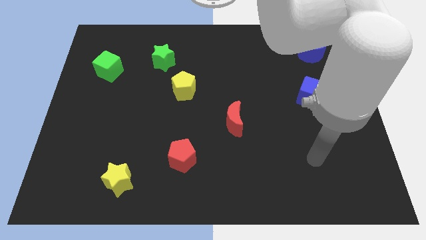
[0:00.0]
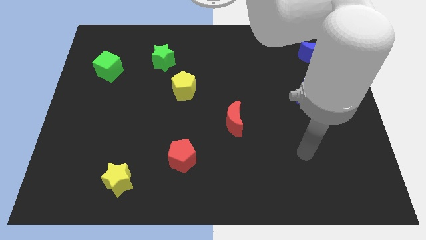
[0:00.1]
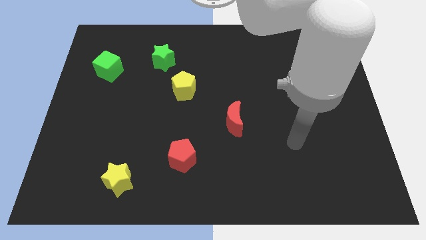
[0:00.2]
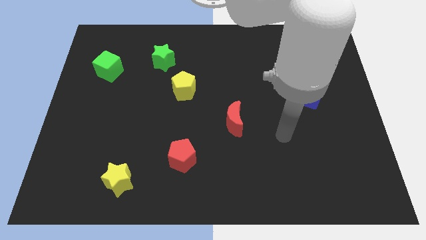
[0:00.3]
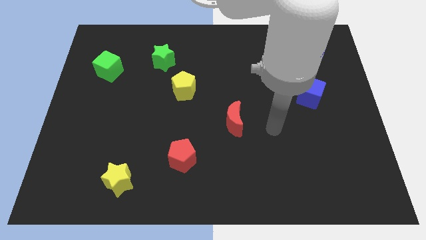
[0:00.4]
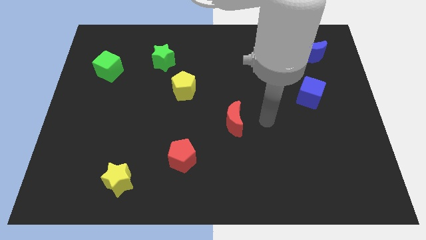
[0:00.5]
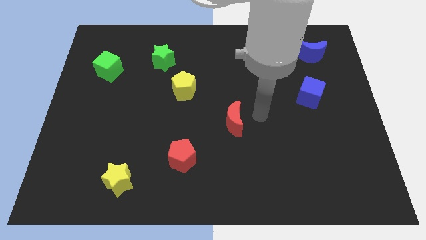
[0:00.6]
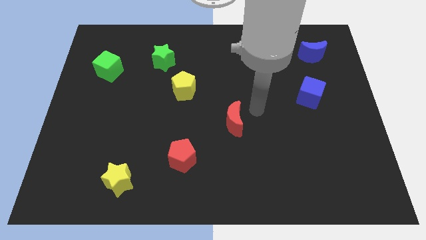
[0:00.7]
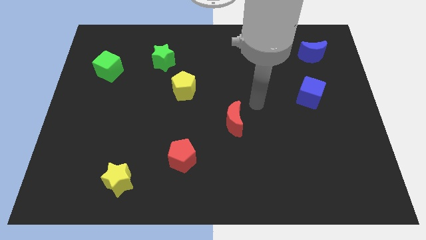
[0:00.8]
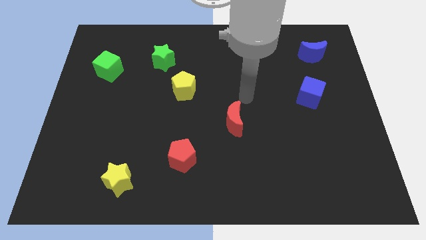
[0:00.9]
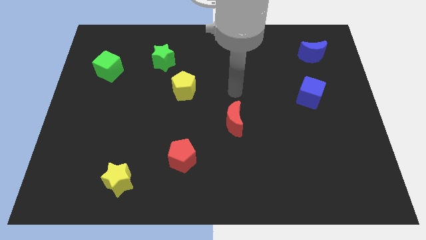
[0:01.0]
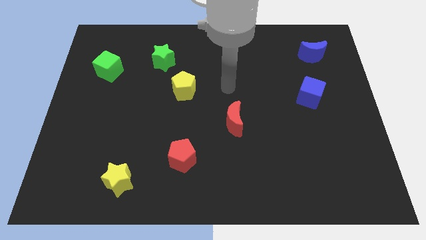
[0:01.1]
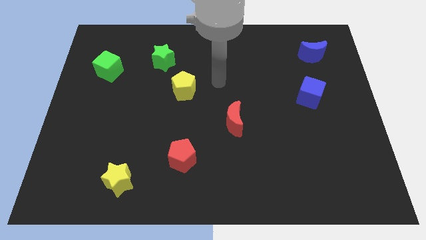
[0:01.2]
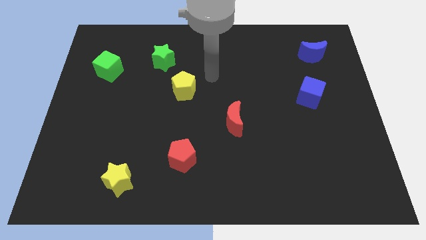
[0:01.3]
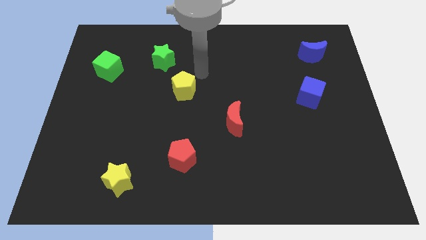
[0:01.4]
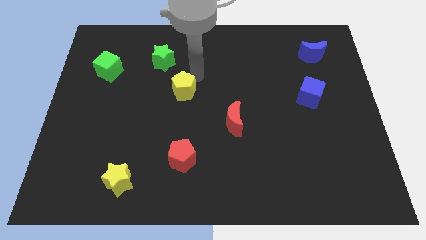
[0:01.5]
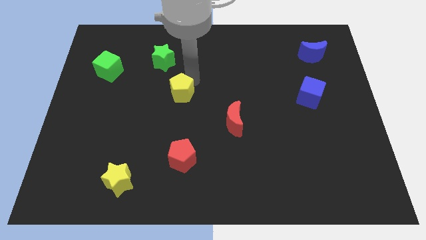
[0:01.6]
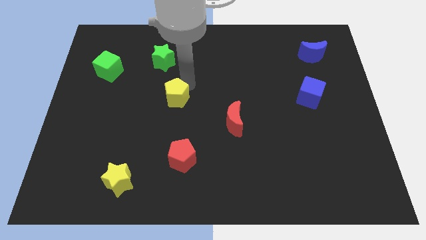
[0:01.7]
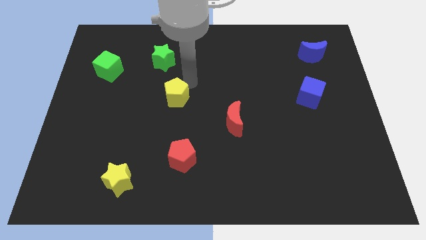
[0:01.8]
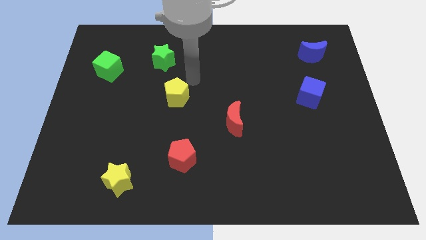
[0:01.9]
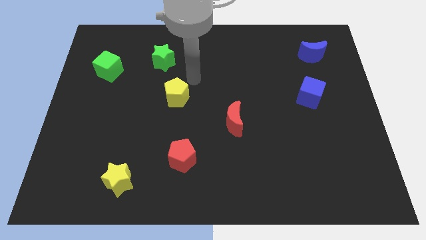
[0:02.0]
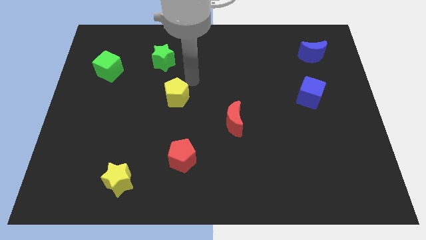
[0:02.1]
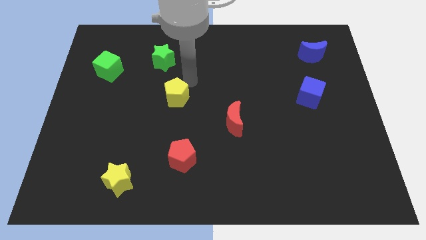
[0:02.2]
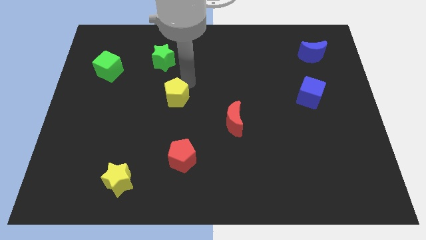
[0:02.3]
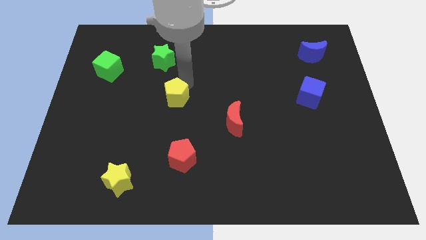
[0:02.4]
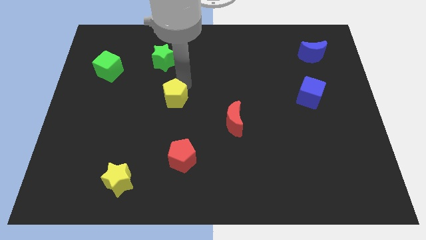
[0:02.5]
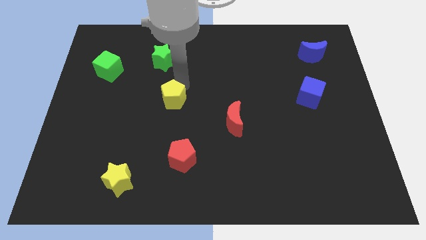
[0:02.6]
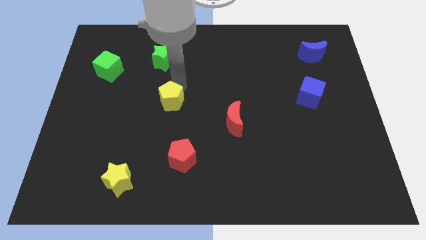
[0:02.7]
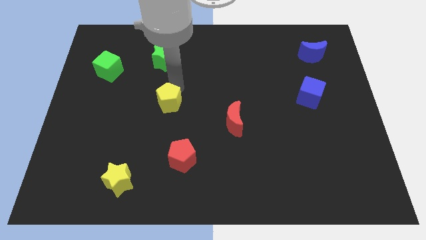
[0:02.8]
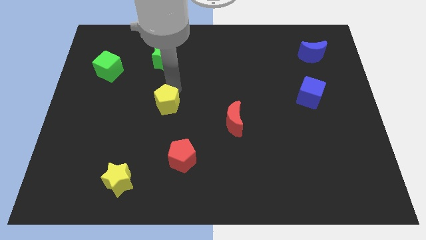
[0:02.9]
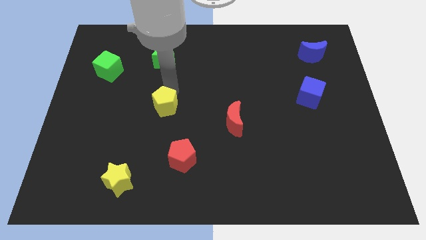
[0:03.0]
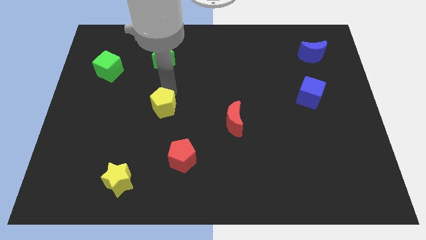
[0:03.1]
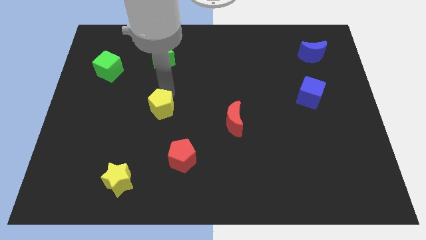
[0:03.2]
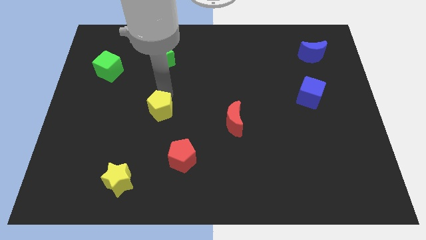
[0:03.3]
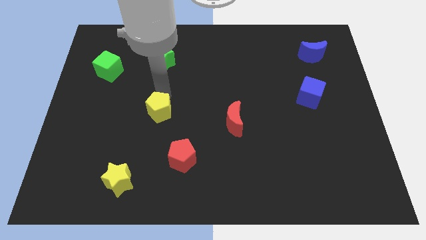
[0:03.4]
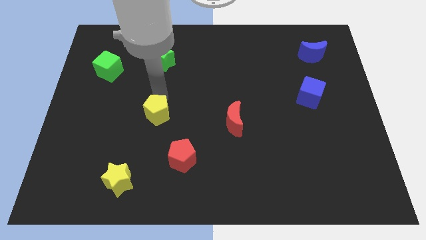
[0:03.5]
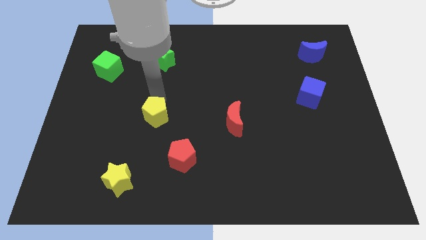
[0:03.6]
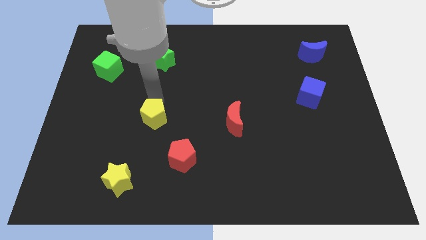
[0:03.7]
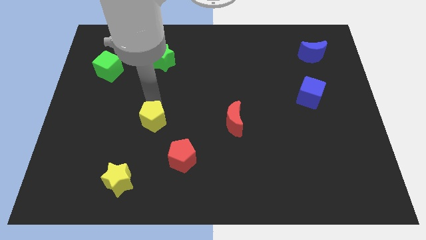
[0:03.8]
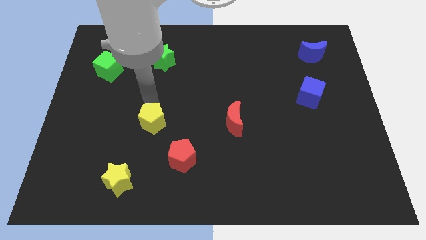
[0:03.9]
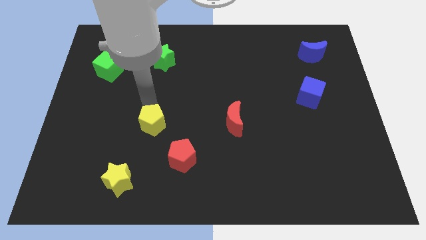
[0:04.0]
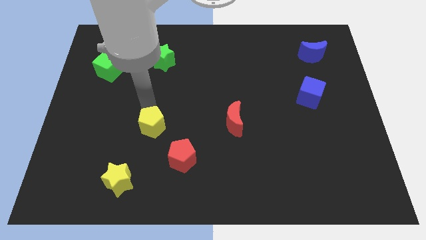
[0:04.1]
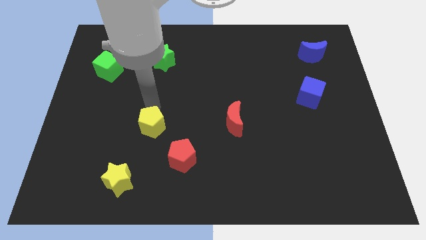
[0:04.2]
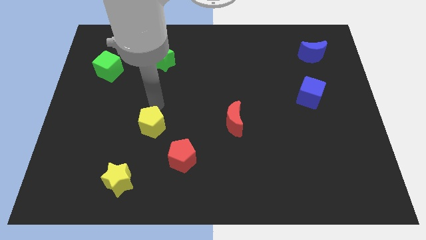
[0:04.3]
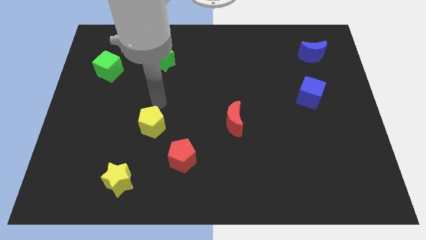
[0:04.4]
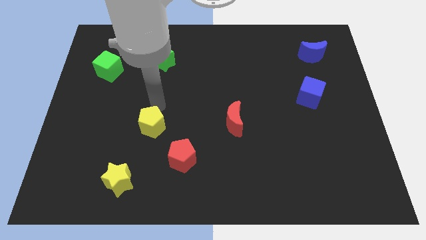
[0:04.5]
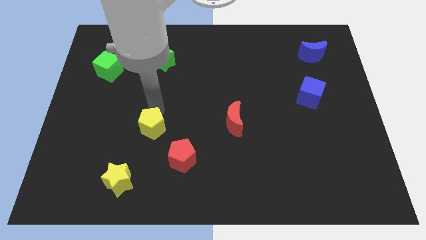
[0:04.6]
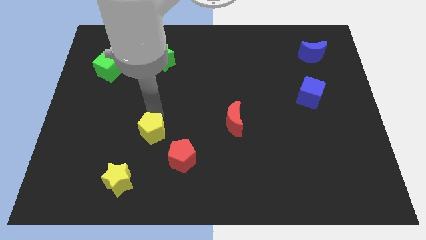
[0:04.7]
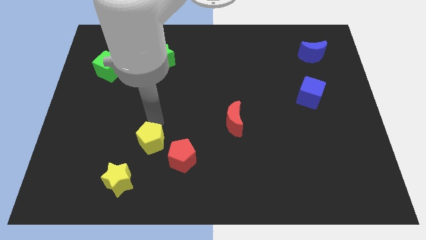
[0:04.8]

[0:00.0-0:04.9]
slide the yellow pentagon left of the red pentagon

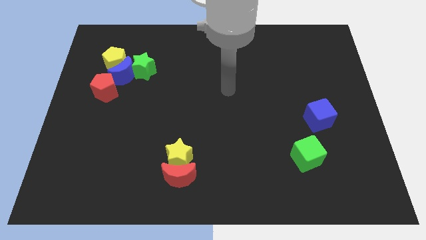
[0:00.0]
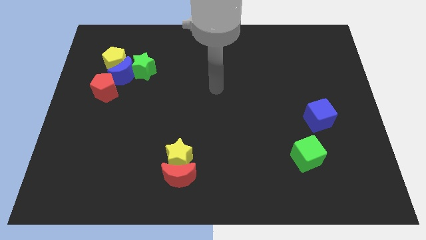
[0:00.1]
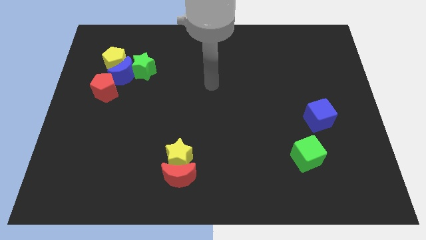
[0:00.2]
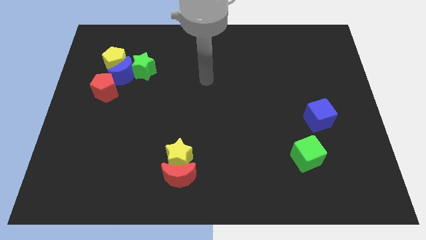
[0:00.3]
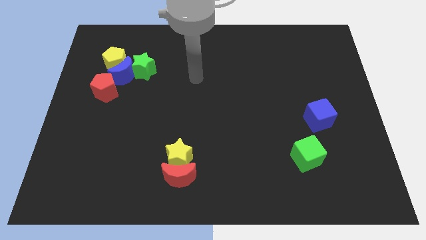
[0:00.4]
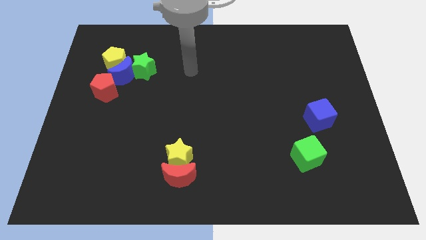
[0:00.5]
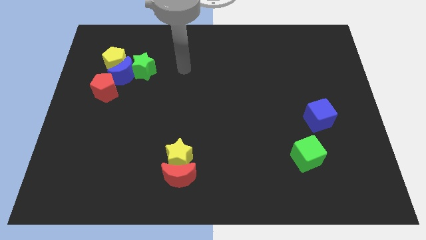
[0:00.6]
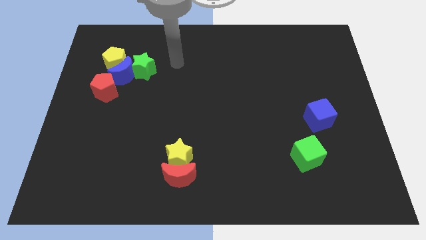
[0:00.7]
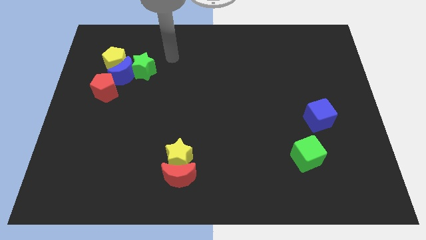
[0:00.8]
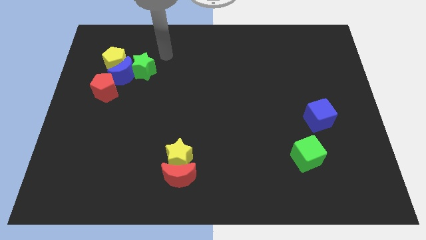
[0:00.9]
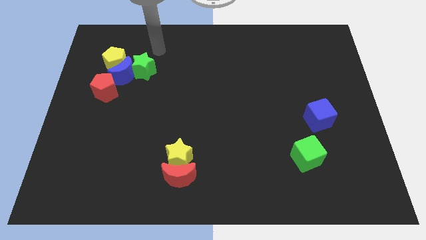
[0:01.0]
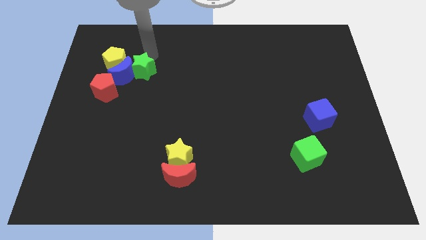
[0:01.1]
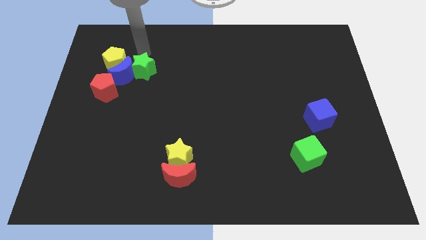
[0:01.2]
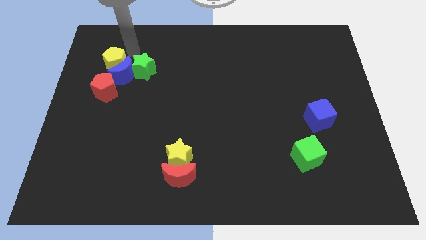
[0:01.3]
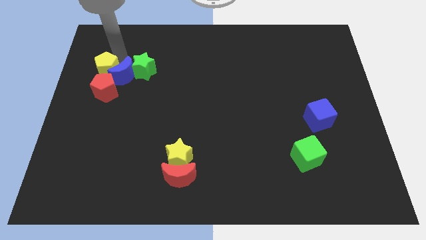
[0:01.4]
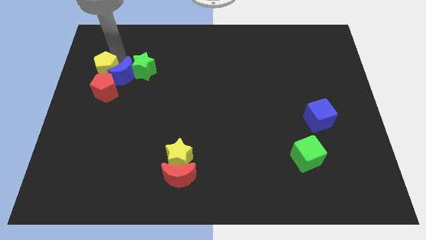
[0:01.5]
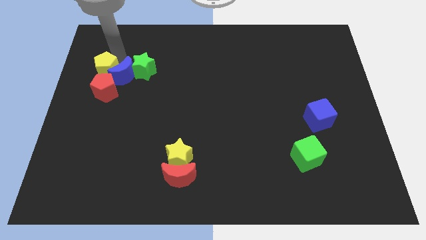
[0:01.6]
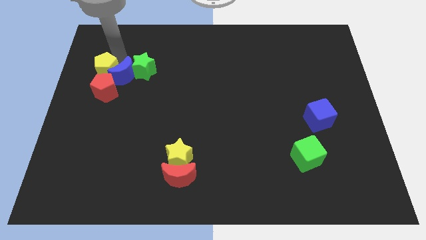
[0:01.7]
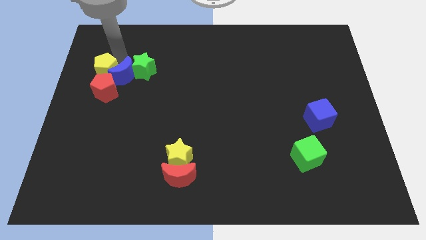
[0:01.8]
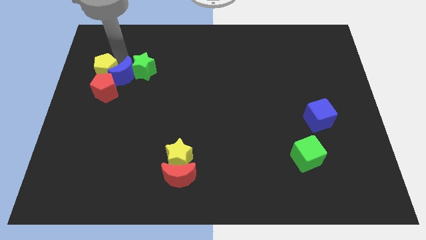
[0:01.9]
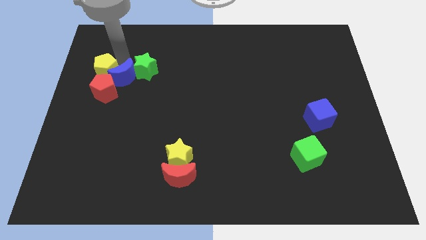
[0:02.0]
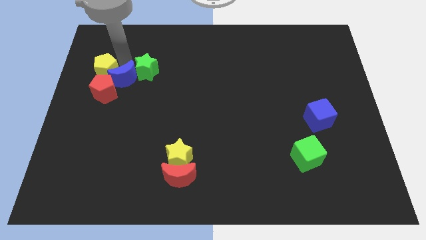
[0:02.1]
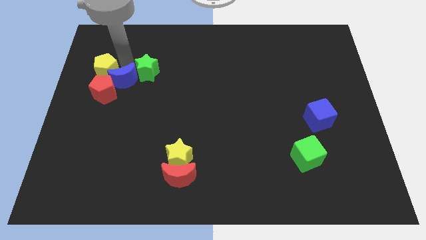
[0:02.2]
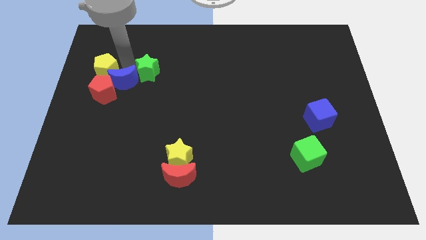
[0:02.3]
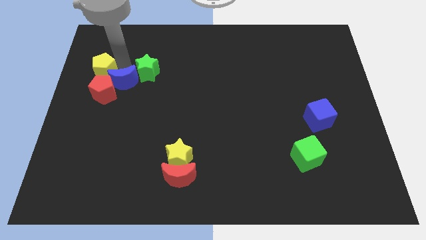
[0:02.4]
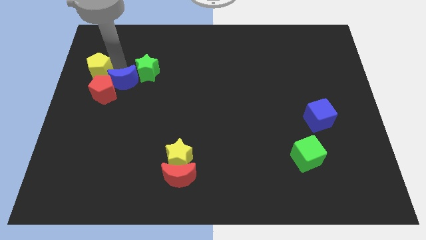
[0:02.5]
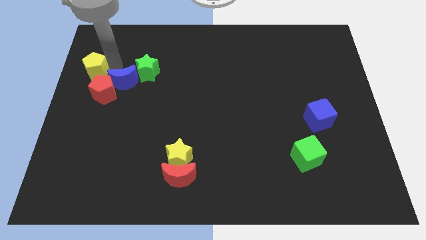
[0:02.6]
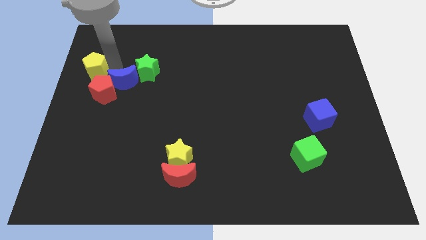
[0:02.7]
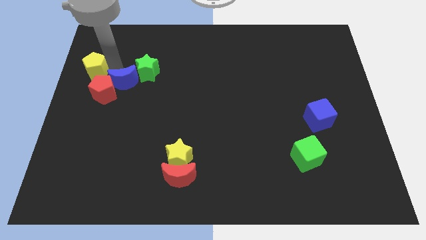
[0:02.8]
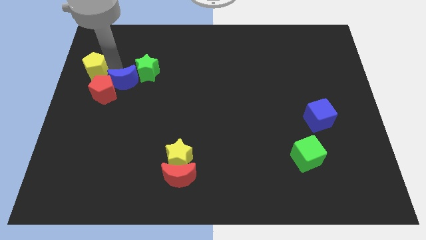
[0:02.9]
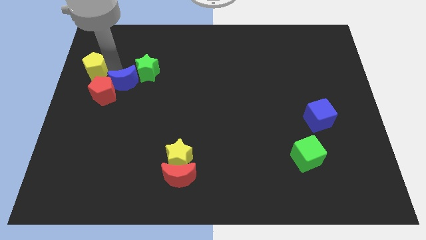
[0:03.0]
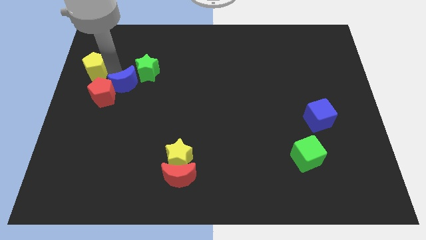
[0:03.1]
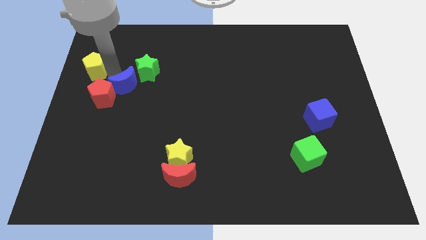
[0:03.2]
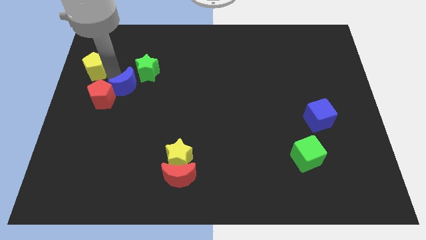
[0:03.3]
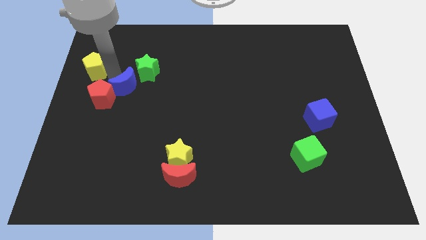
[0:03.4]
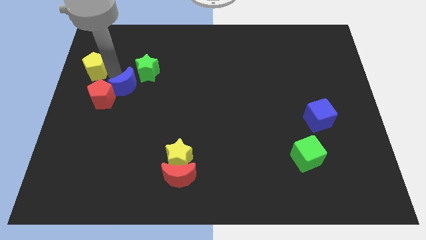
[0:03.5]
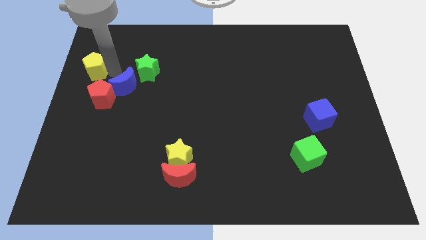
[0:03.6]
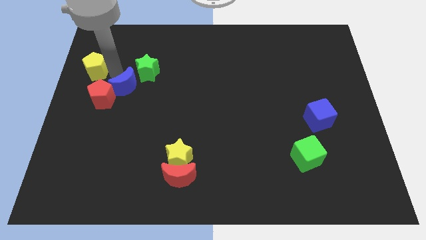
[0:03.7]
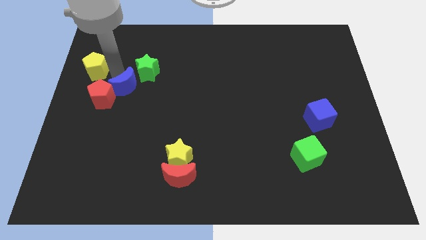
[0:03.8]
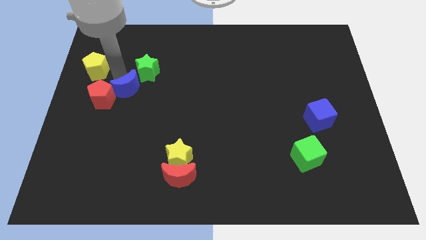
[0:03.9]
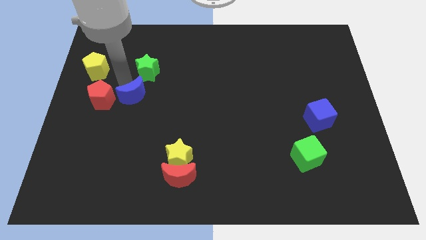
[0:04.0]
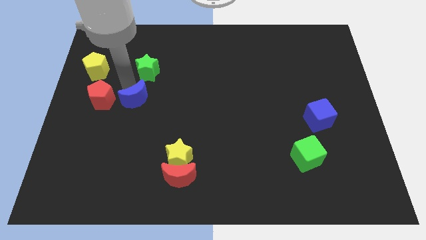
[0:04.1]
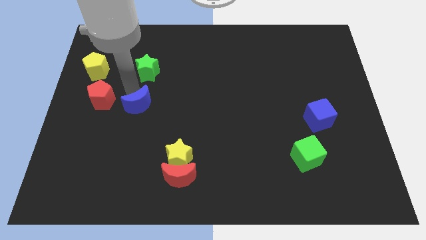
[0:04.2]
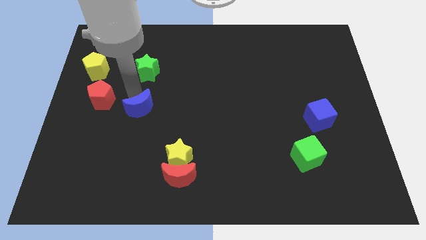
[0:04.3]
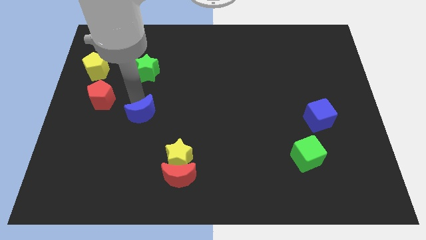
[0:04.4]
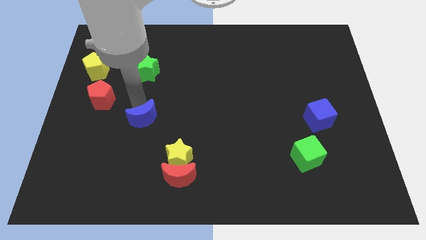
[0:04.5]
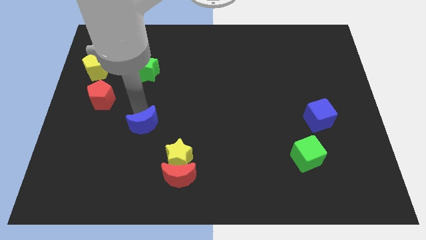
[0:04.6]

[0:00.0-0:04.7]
put the blue moon diagonally up and to the left of the yellow star
